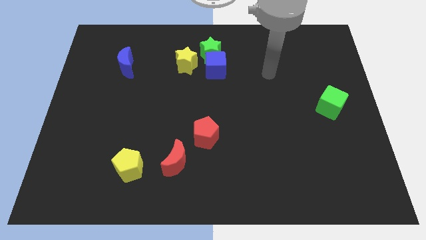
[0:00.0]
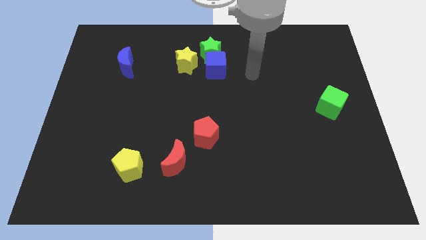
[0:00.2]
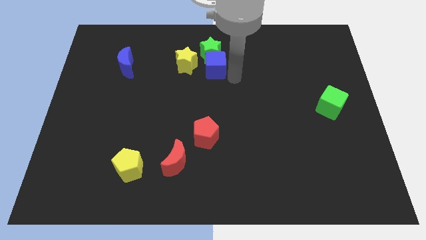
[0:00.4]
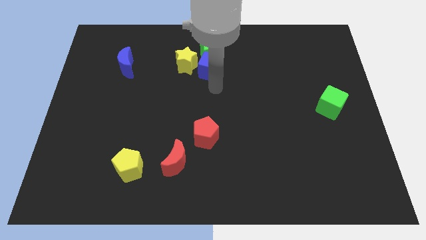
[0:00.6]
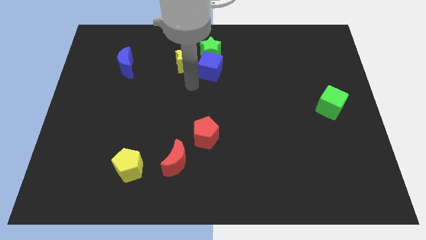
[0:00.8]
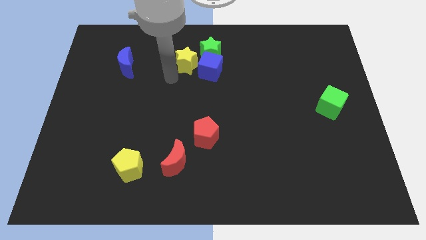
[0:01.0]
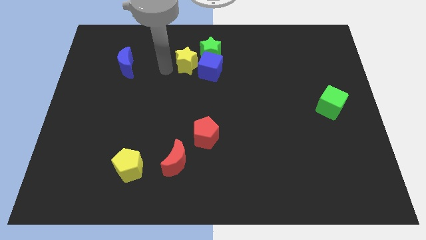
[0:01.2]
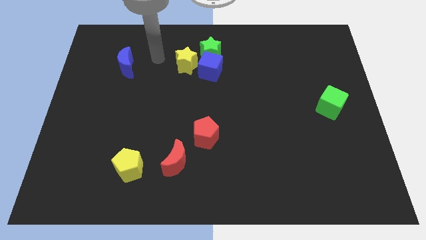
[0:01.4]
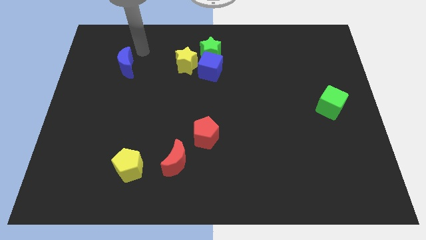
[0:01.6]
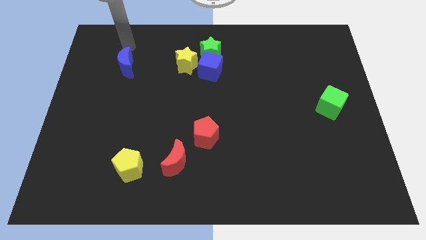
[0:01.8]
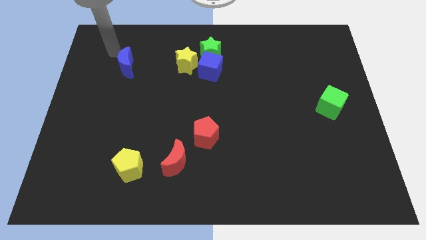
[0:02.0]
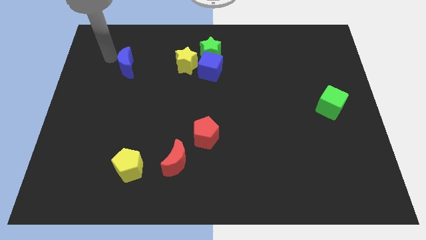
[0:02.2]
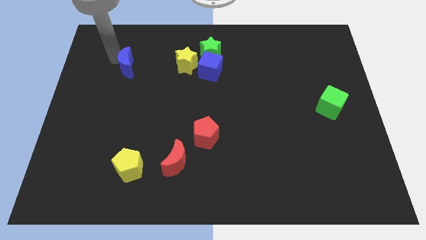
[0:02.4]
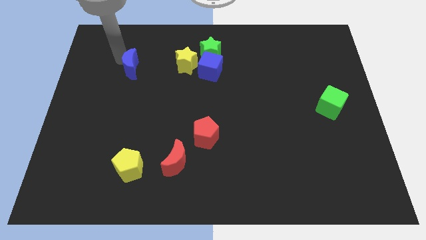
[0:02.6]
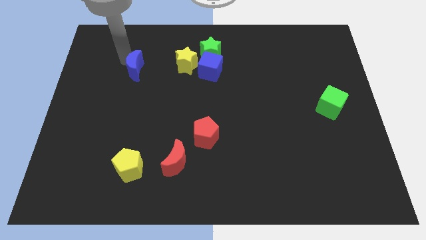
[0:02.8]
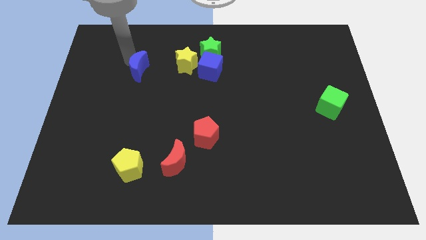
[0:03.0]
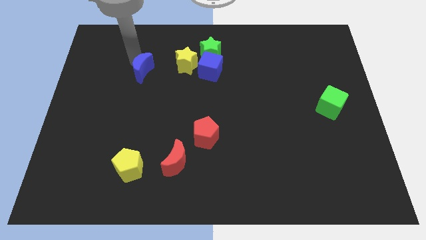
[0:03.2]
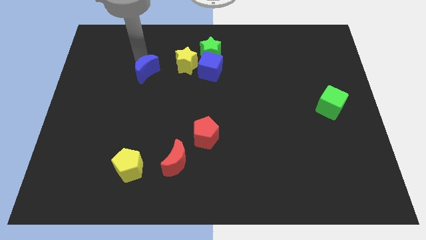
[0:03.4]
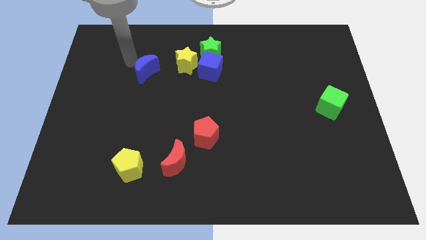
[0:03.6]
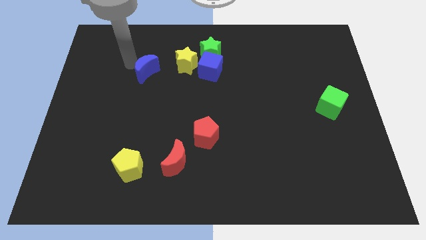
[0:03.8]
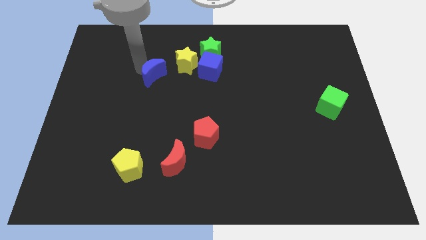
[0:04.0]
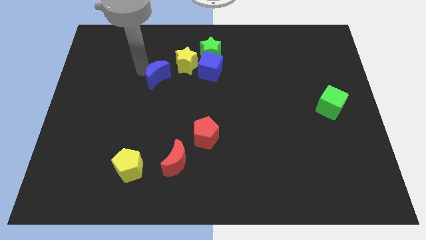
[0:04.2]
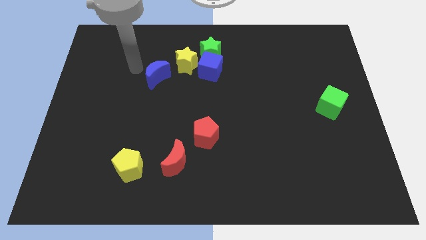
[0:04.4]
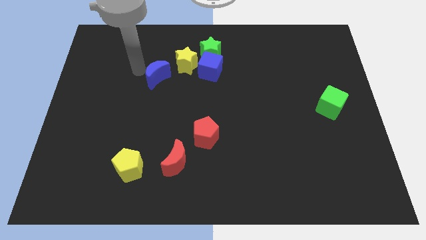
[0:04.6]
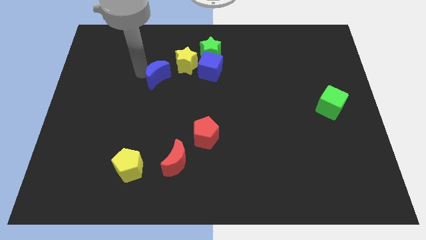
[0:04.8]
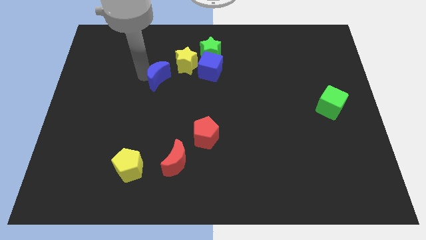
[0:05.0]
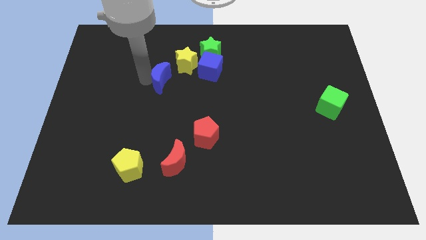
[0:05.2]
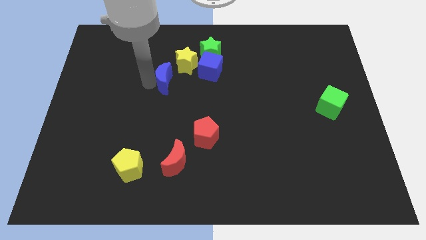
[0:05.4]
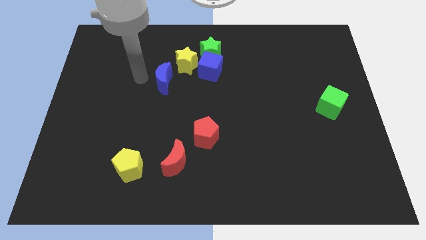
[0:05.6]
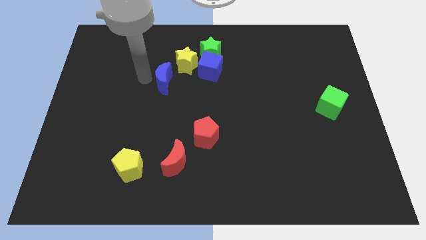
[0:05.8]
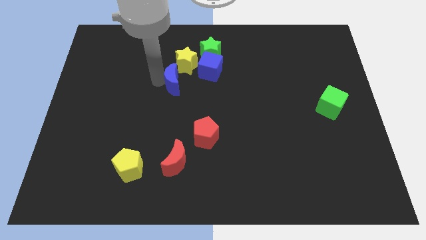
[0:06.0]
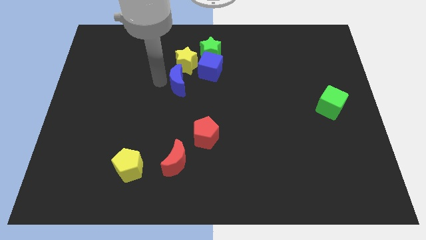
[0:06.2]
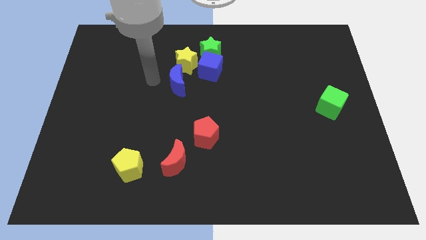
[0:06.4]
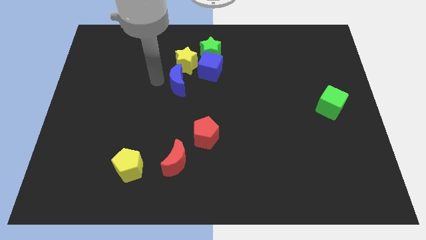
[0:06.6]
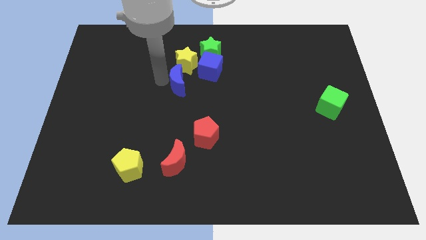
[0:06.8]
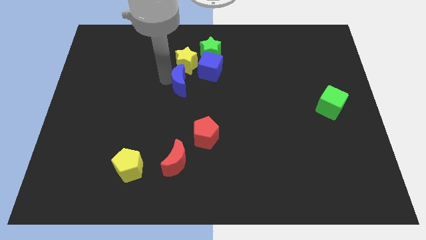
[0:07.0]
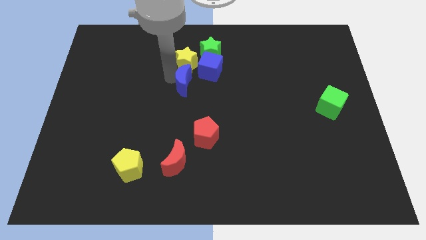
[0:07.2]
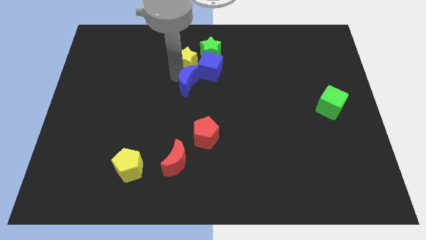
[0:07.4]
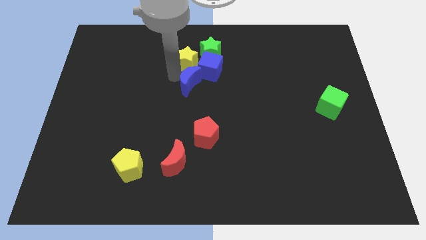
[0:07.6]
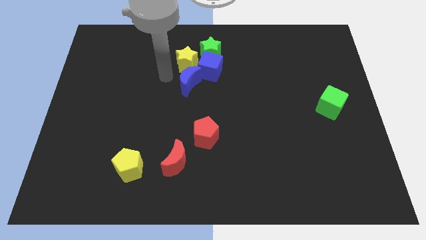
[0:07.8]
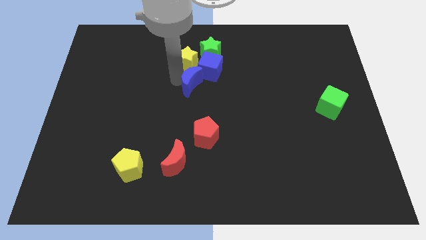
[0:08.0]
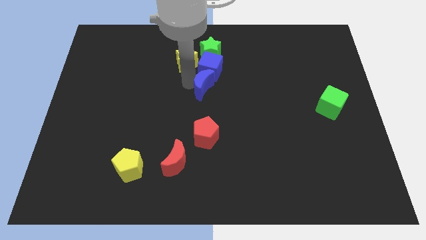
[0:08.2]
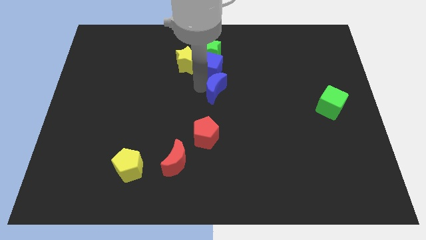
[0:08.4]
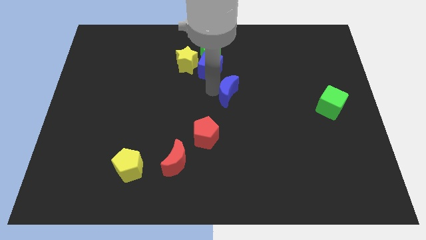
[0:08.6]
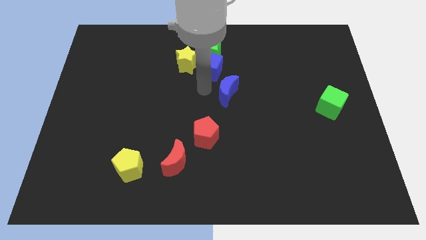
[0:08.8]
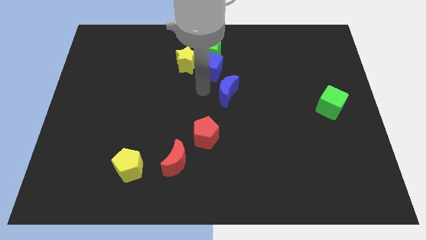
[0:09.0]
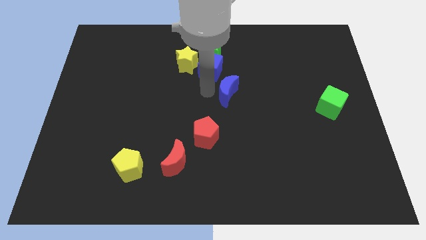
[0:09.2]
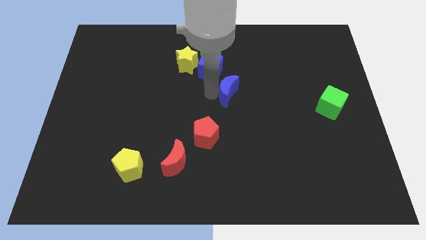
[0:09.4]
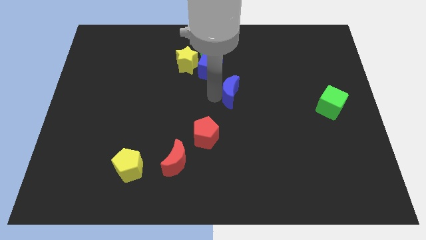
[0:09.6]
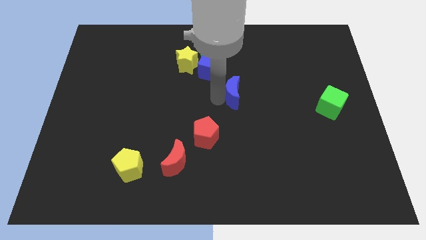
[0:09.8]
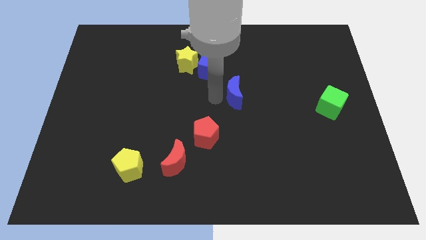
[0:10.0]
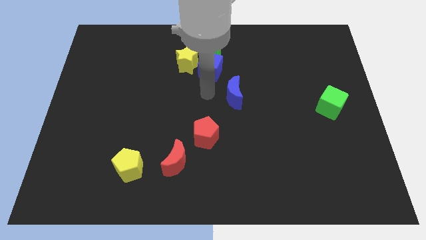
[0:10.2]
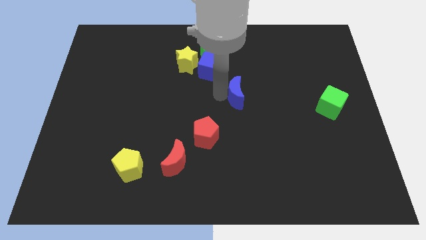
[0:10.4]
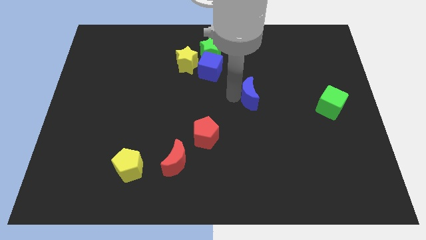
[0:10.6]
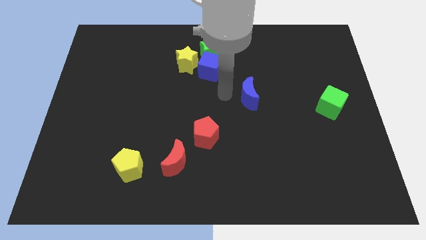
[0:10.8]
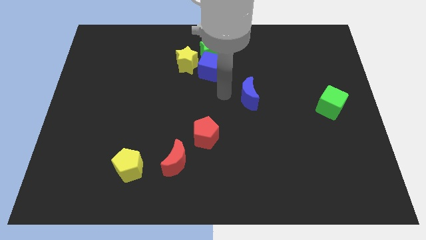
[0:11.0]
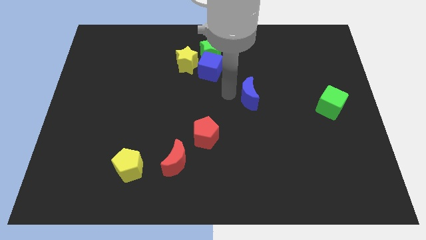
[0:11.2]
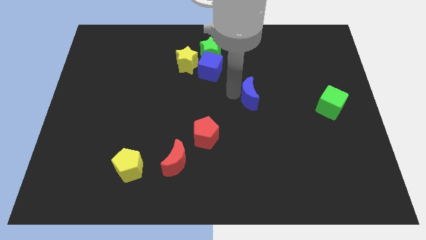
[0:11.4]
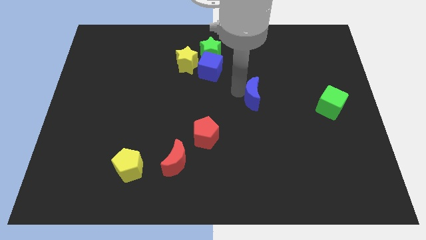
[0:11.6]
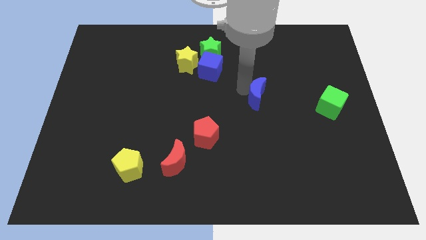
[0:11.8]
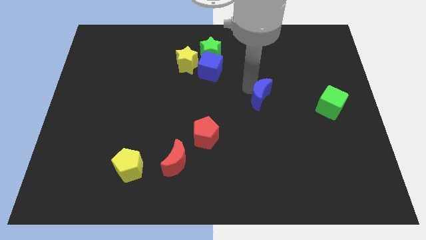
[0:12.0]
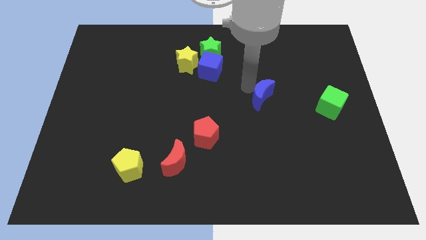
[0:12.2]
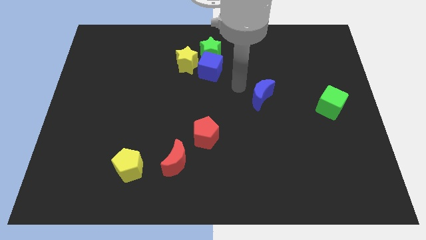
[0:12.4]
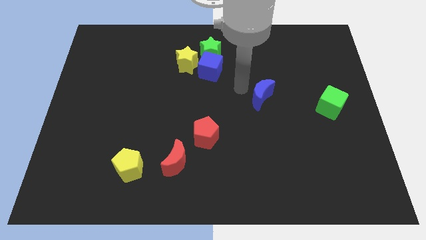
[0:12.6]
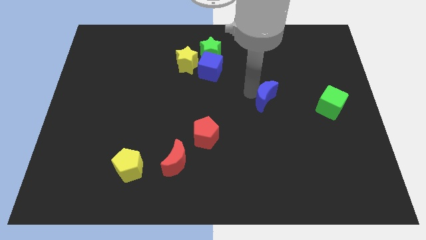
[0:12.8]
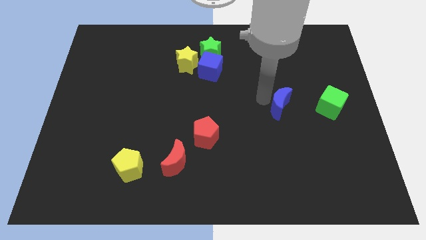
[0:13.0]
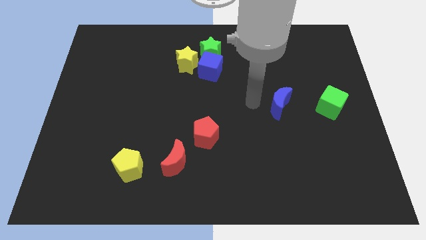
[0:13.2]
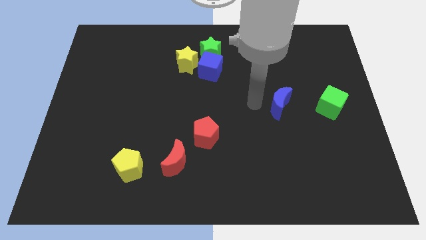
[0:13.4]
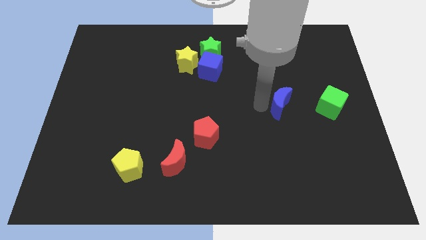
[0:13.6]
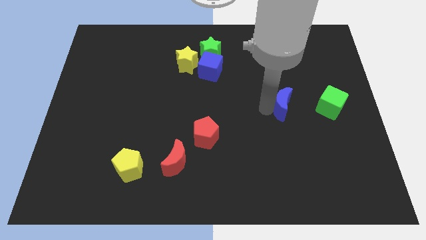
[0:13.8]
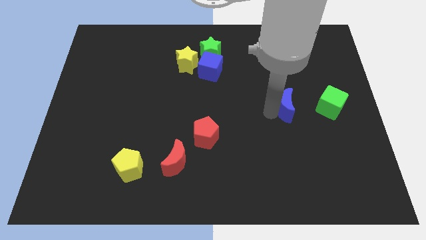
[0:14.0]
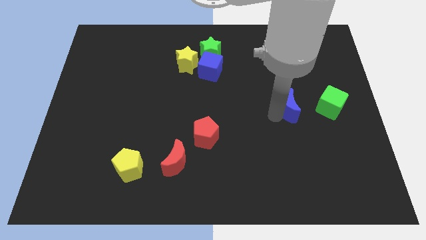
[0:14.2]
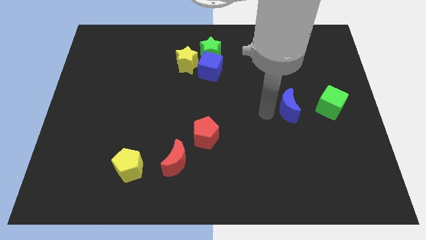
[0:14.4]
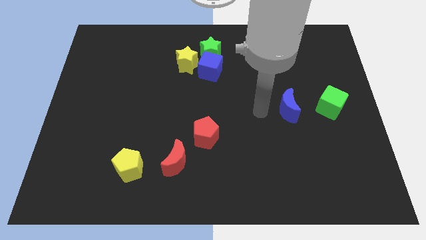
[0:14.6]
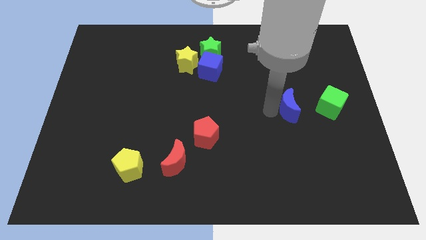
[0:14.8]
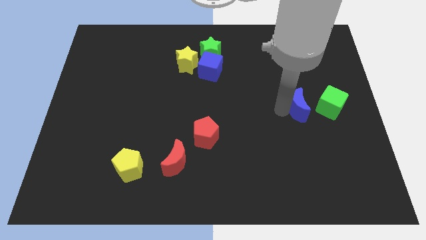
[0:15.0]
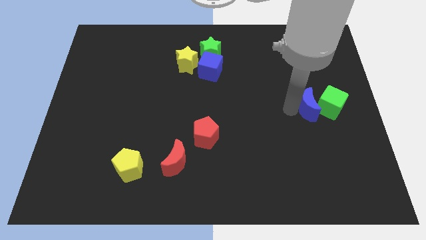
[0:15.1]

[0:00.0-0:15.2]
put the blue moon close to the green cube
